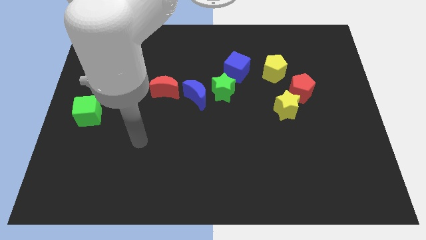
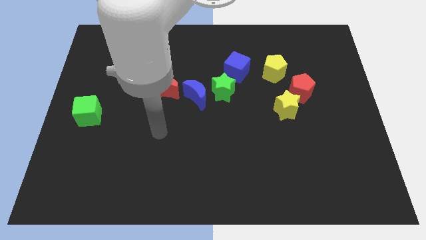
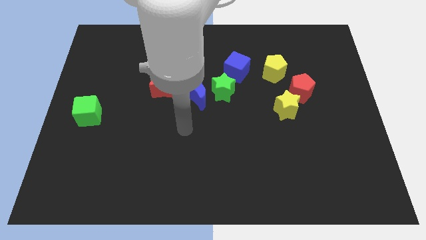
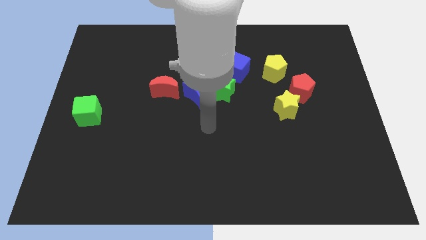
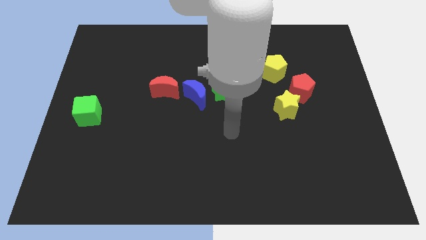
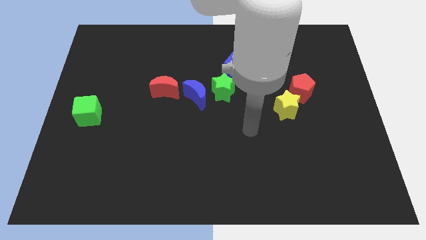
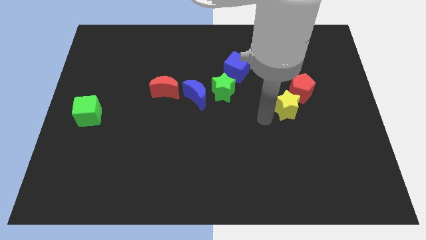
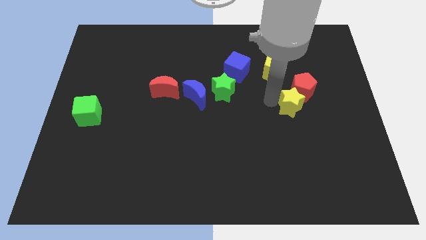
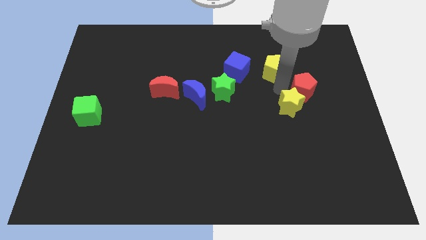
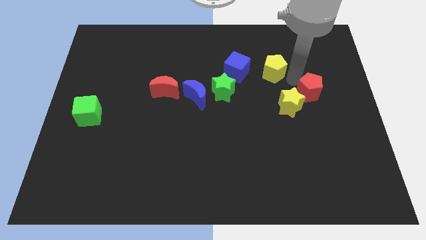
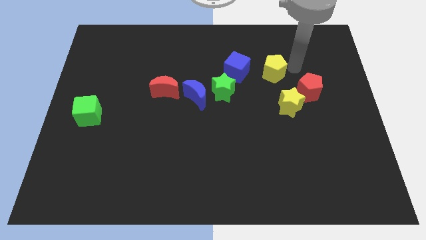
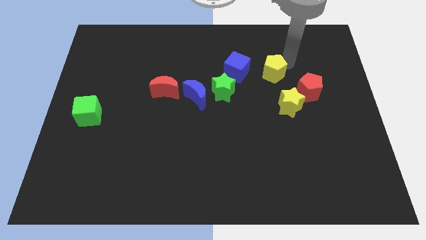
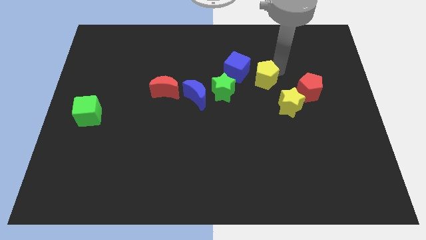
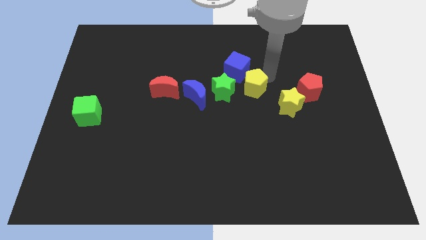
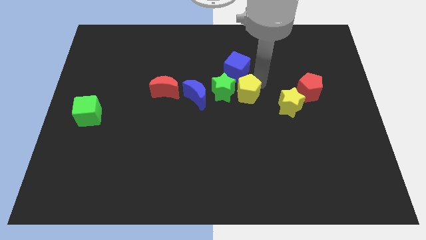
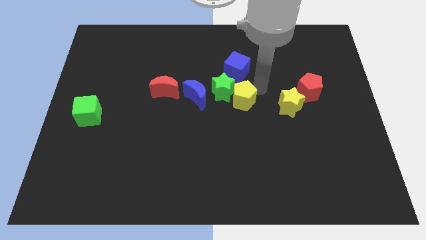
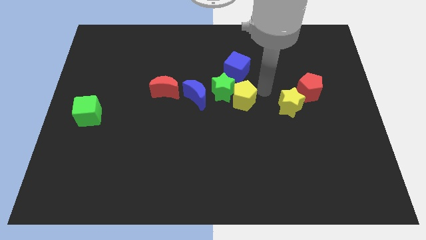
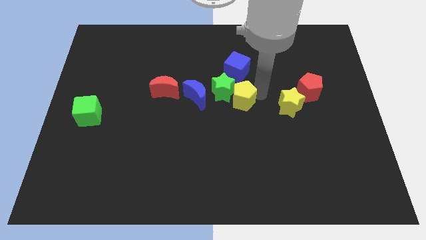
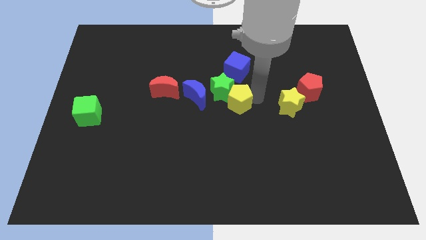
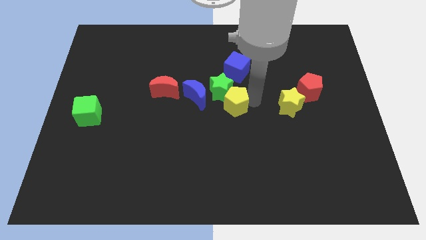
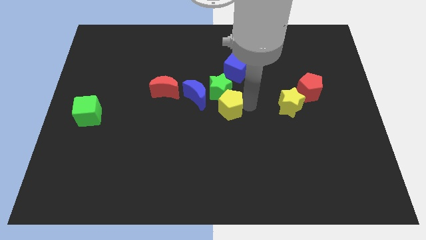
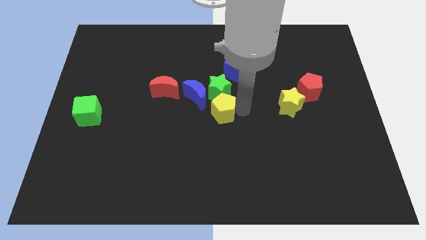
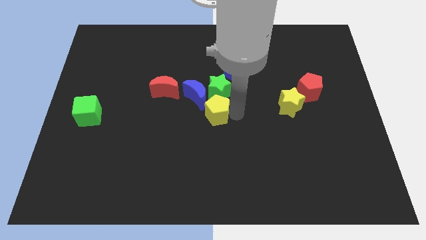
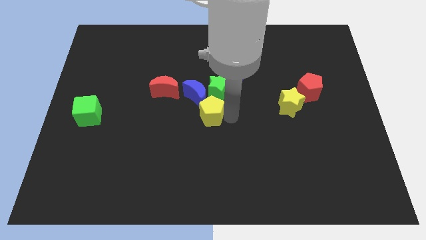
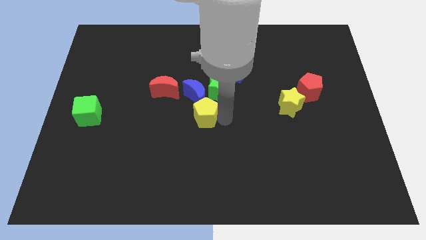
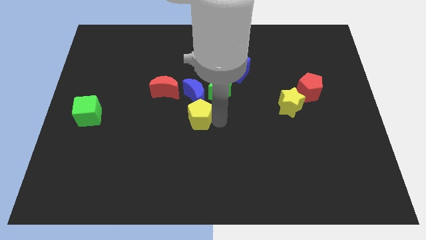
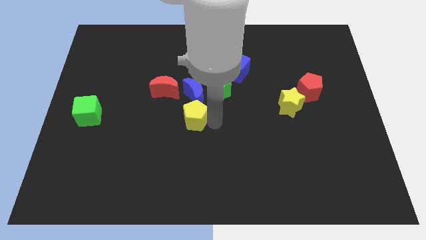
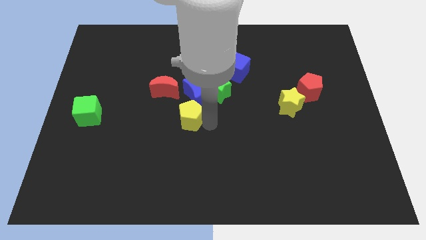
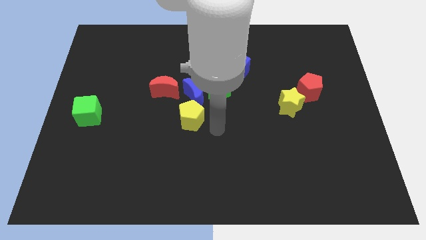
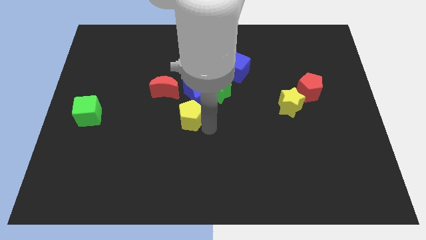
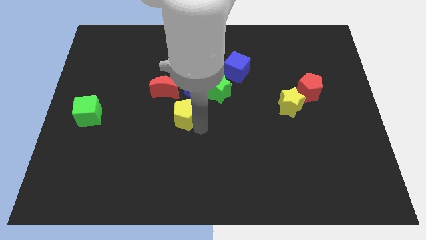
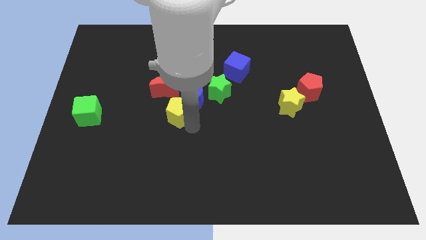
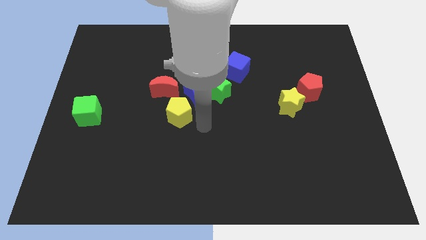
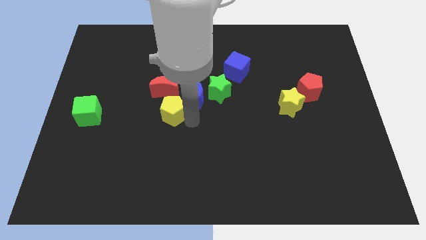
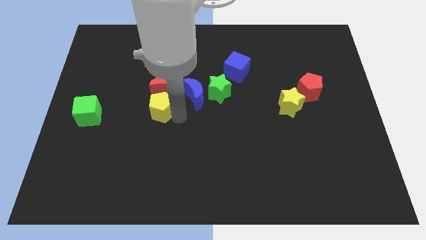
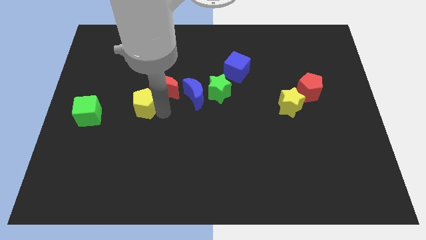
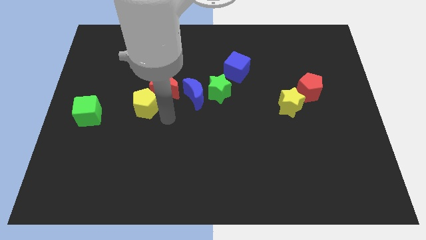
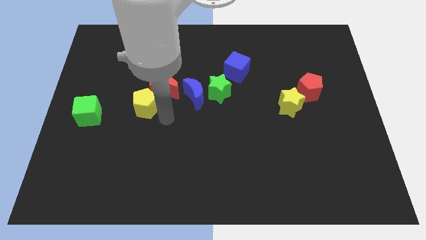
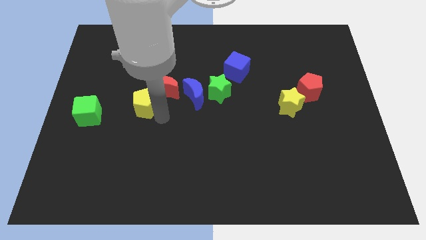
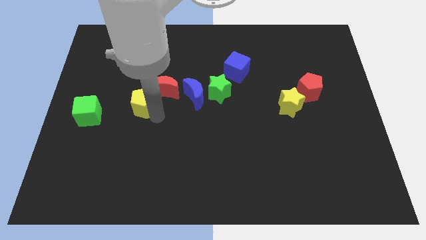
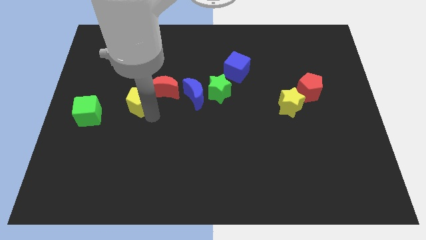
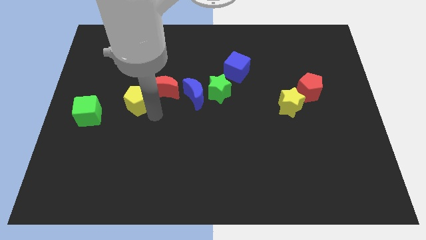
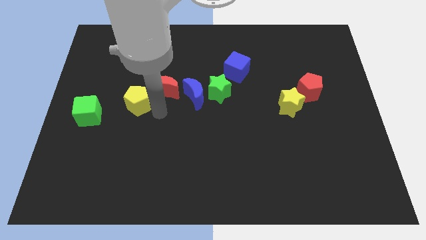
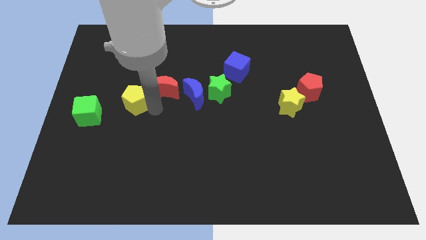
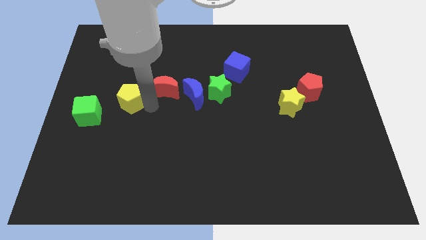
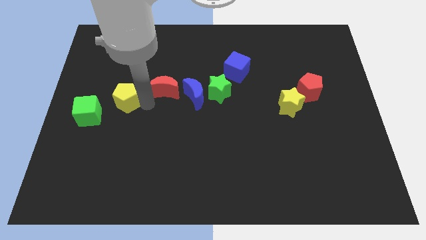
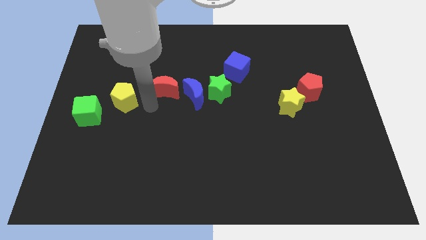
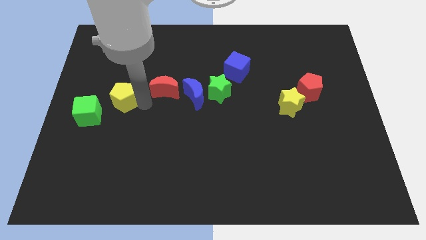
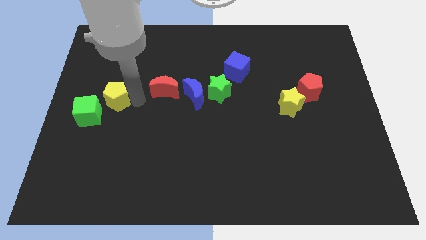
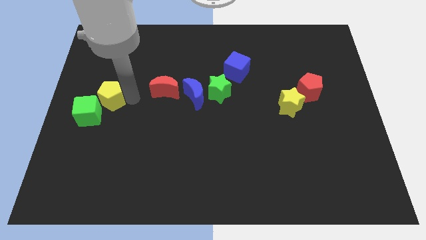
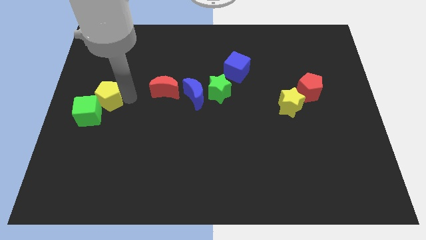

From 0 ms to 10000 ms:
put the yellow pentagon to the left side

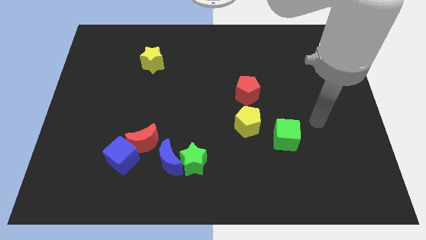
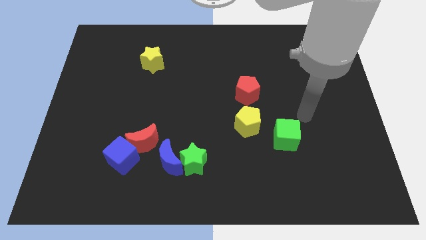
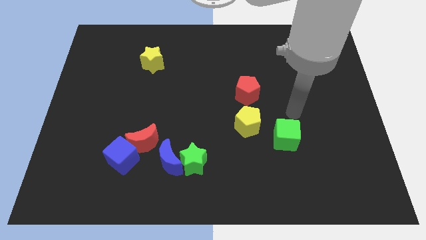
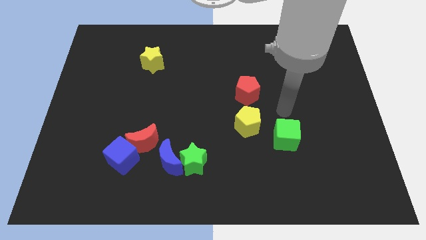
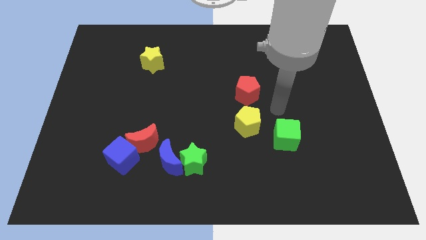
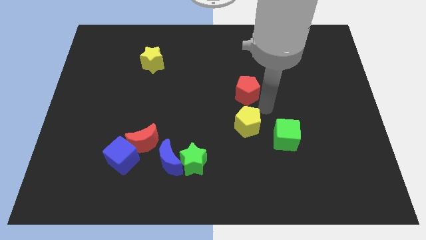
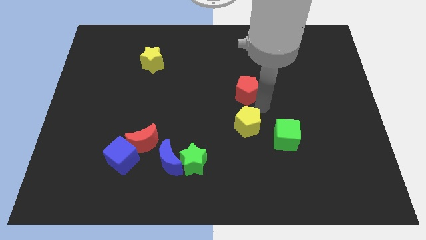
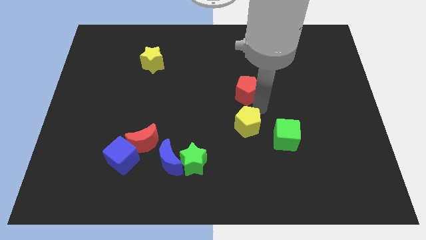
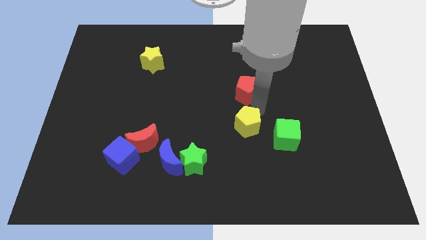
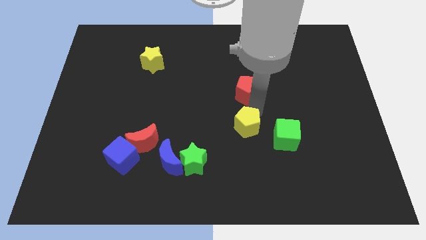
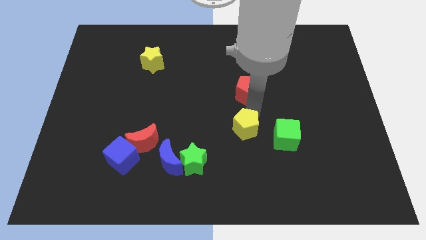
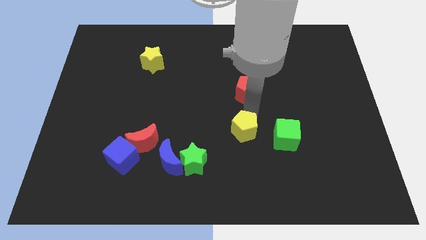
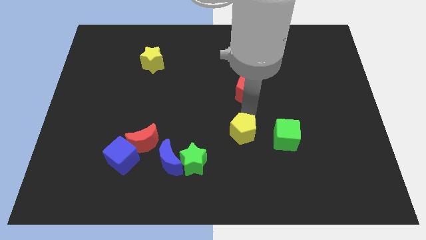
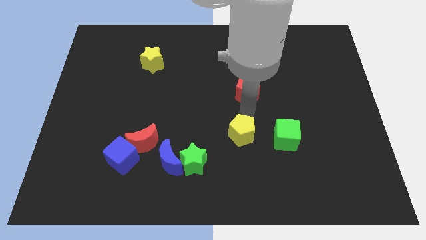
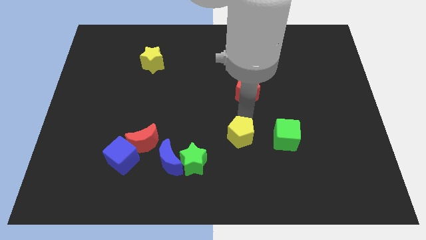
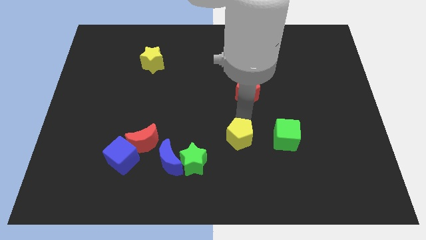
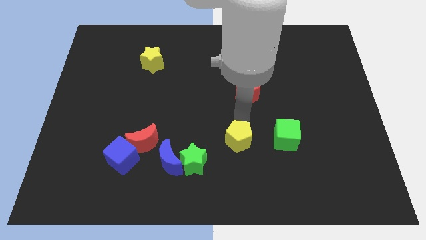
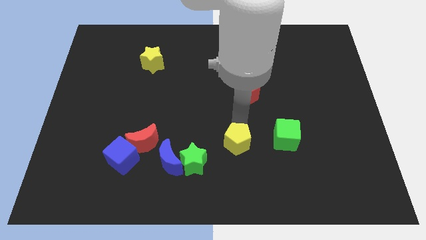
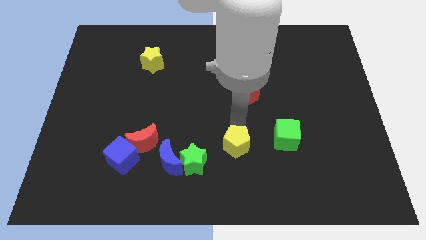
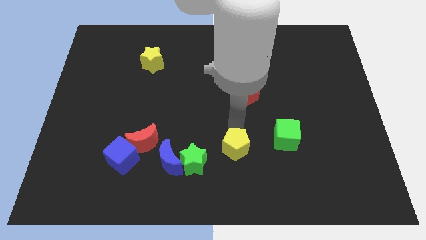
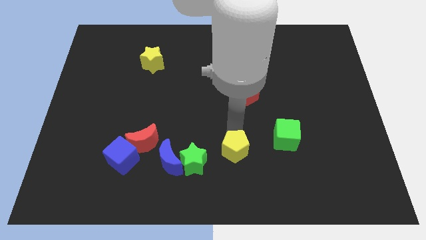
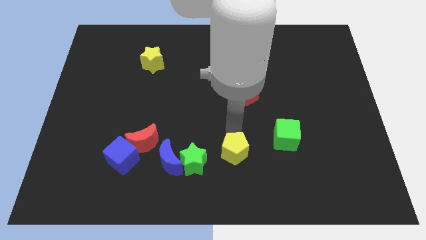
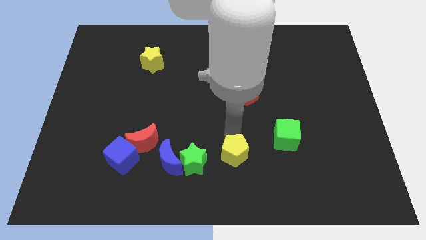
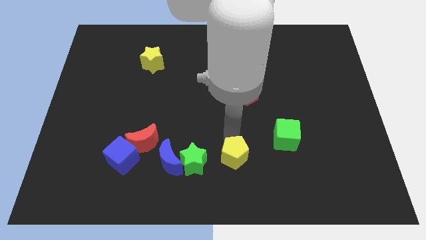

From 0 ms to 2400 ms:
put the yellow pentagon to the bottom side

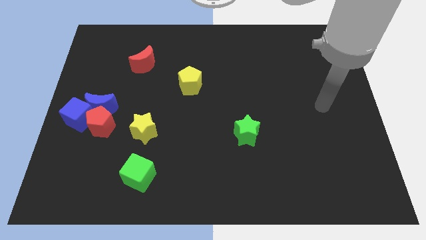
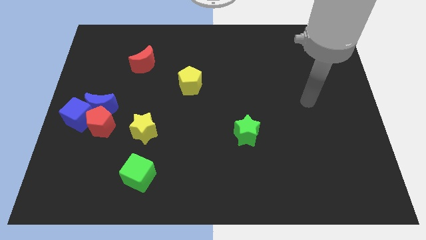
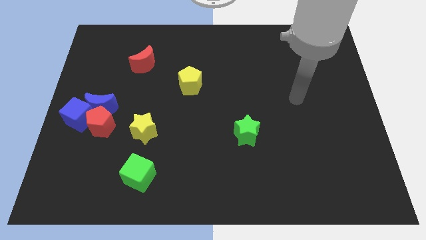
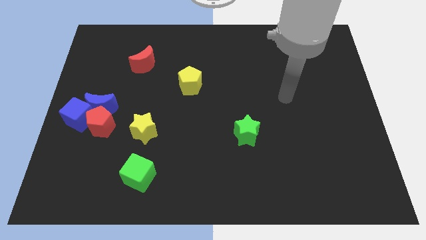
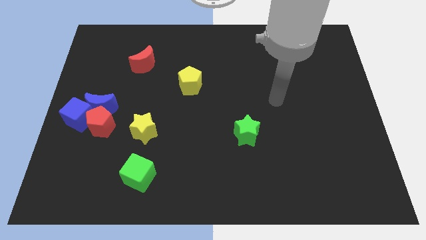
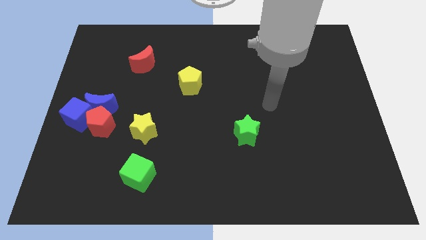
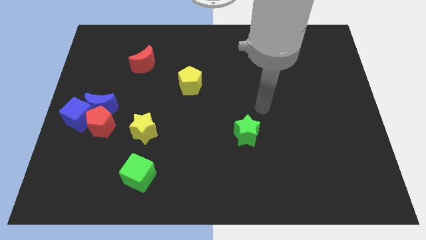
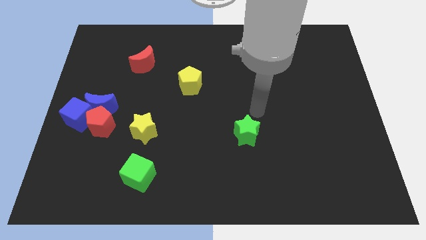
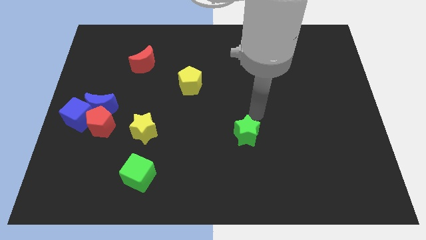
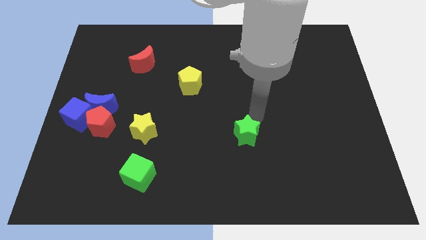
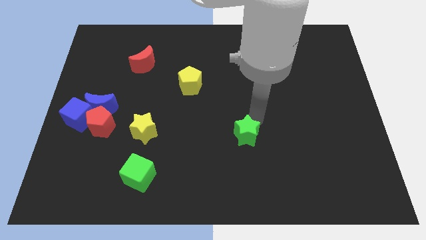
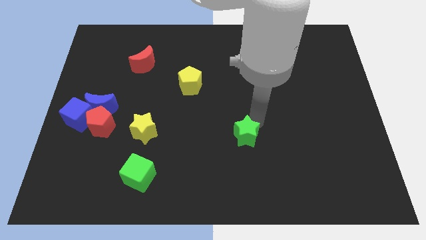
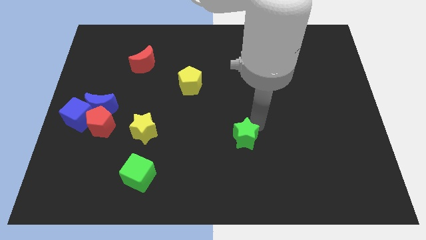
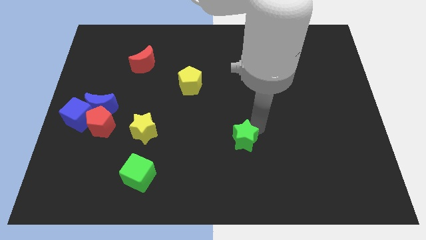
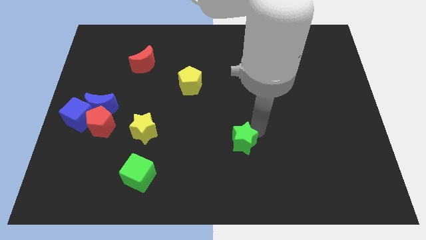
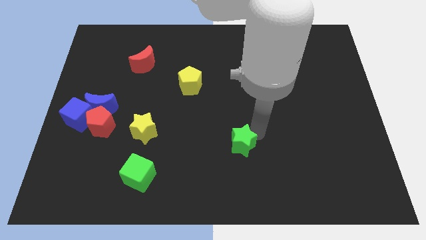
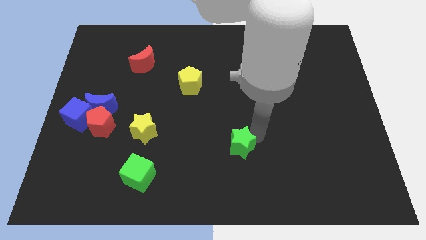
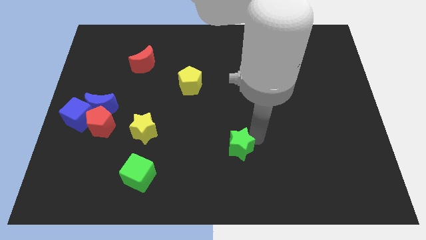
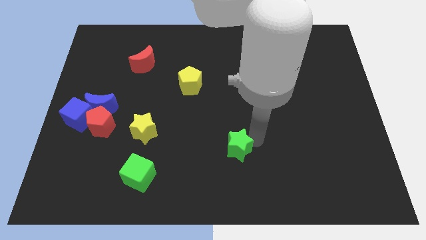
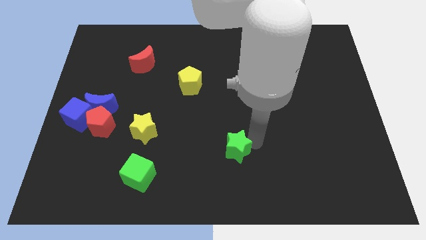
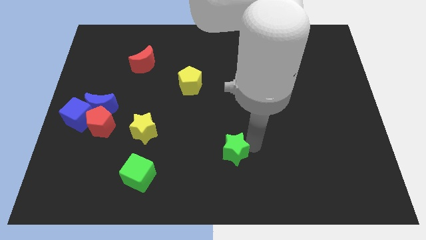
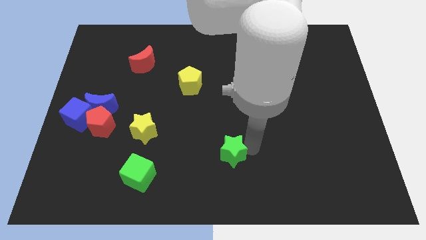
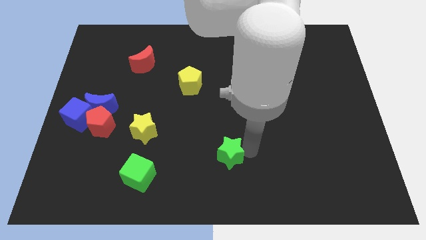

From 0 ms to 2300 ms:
move the green star to the bottom side
